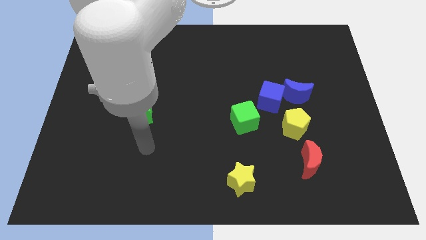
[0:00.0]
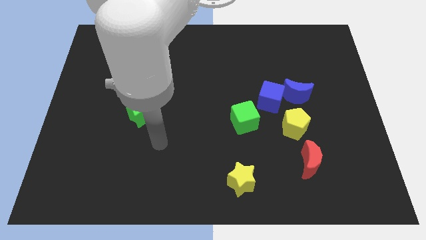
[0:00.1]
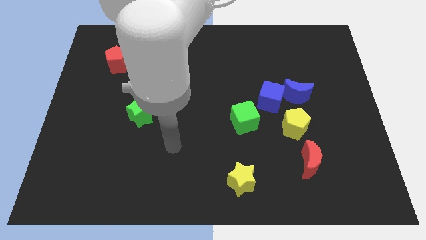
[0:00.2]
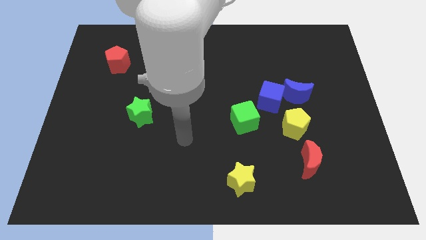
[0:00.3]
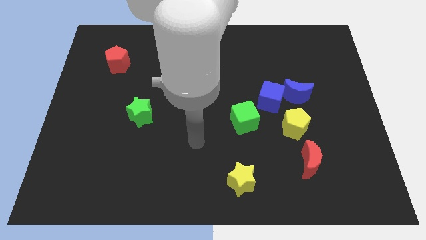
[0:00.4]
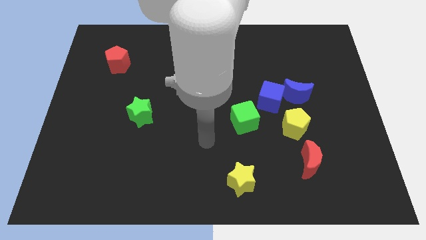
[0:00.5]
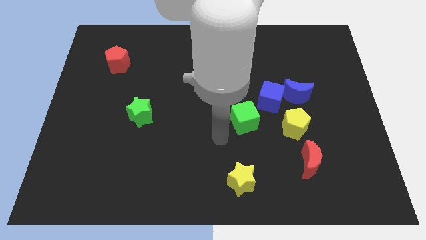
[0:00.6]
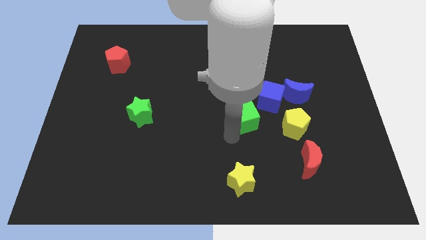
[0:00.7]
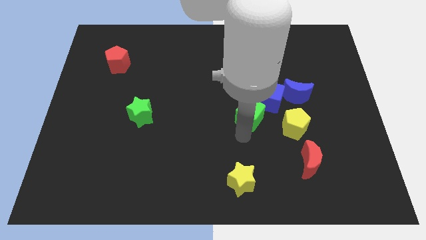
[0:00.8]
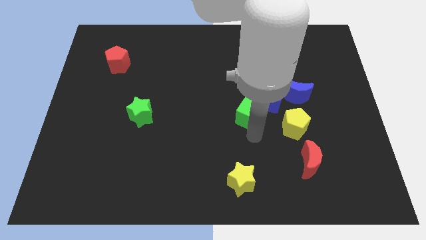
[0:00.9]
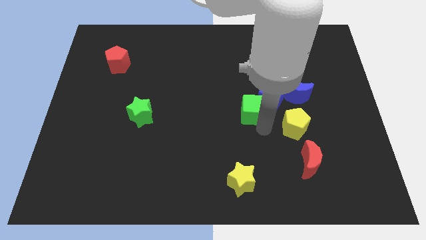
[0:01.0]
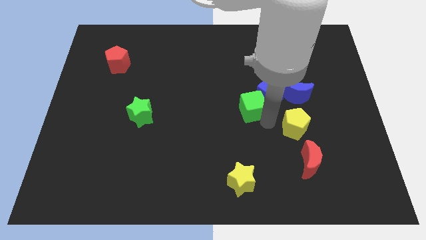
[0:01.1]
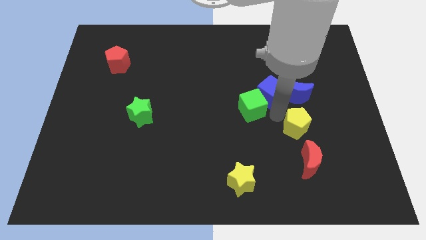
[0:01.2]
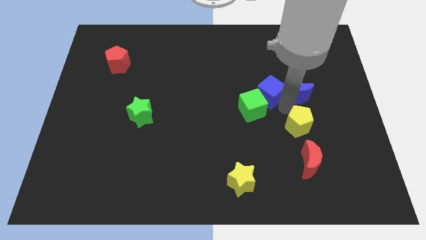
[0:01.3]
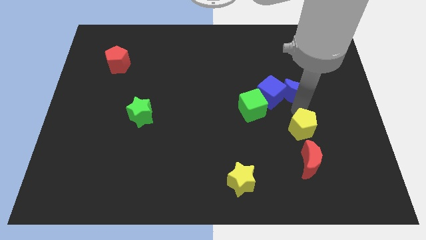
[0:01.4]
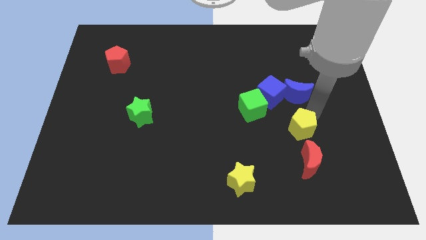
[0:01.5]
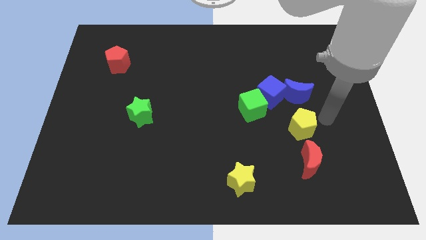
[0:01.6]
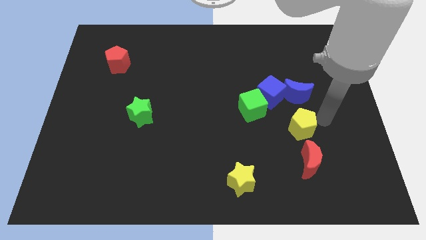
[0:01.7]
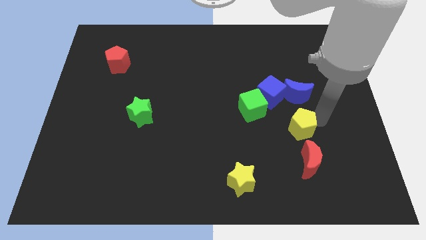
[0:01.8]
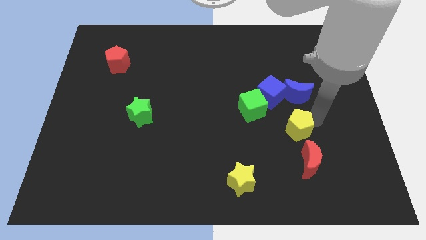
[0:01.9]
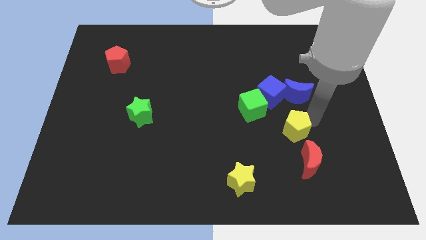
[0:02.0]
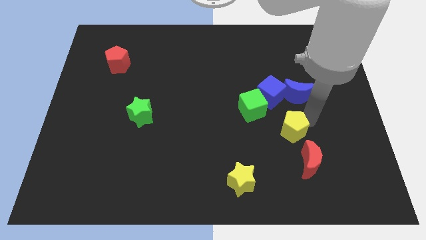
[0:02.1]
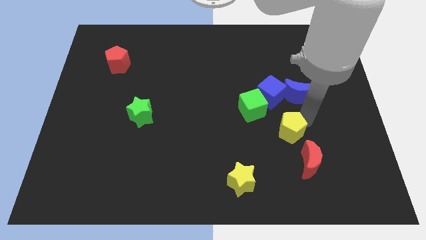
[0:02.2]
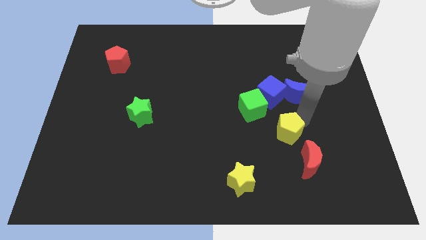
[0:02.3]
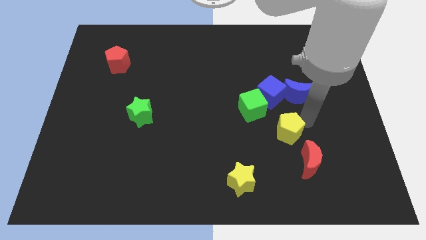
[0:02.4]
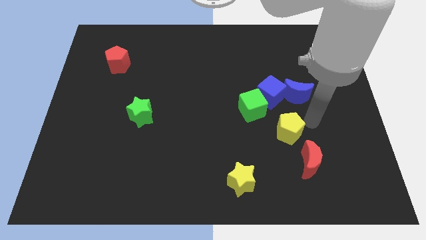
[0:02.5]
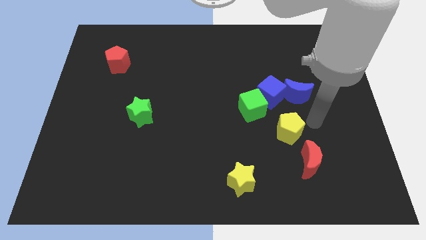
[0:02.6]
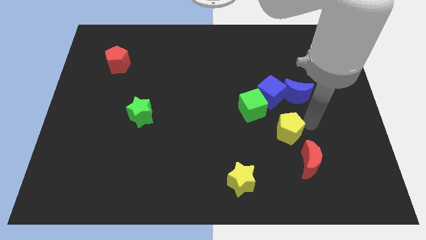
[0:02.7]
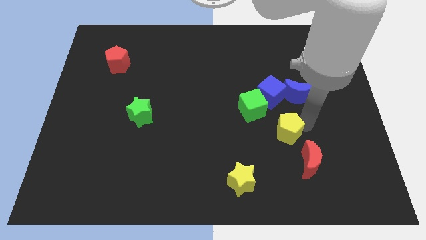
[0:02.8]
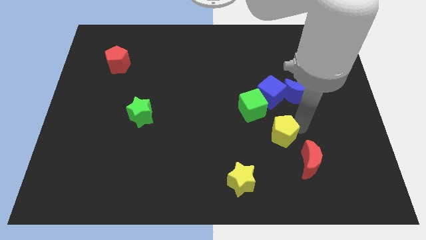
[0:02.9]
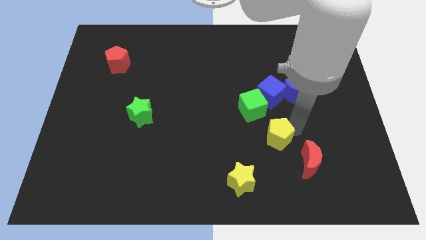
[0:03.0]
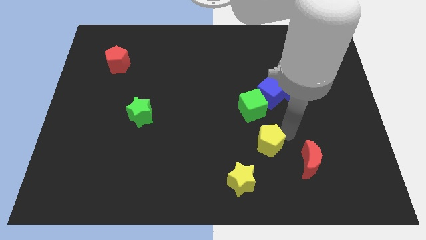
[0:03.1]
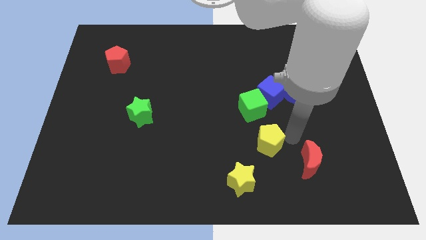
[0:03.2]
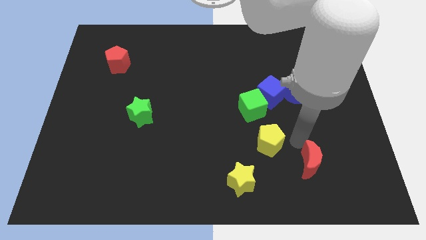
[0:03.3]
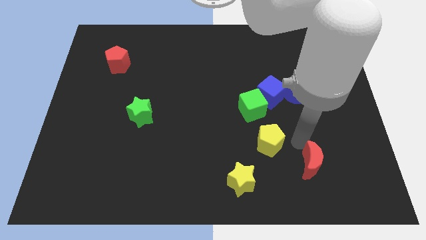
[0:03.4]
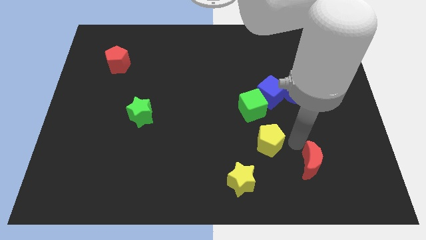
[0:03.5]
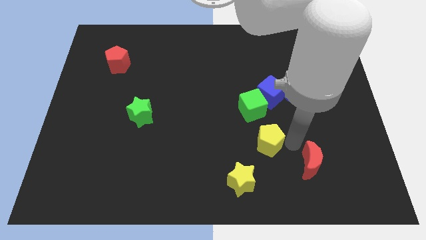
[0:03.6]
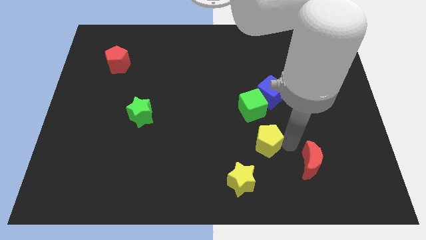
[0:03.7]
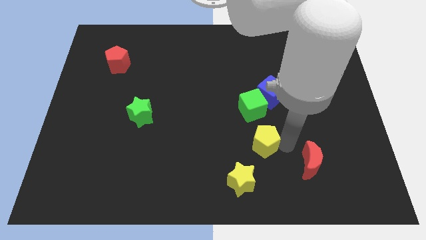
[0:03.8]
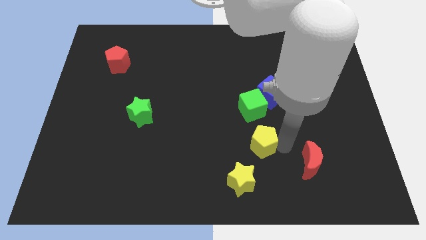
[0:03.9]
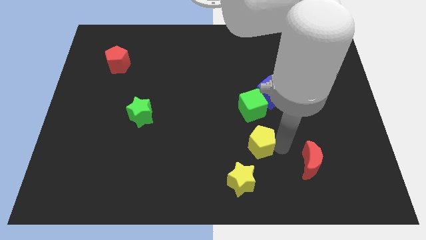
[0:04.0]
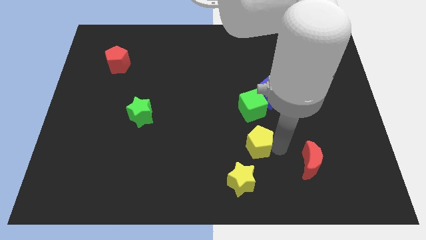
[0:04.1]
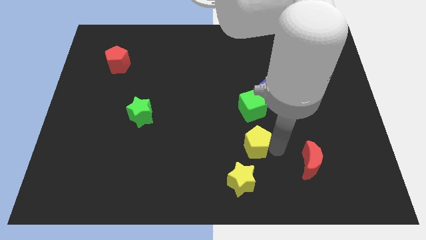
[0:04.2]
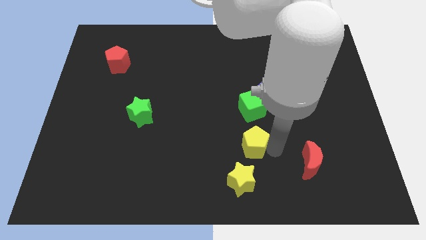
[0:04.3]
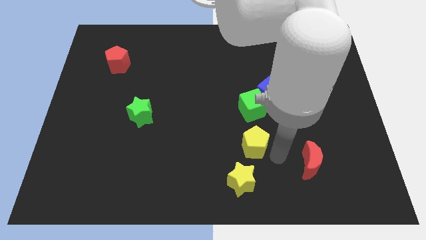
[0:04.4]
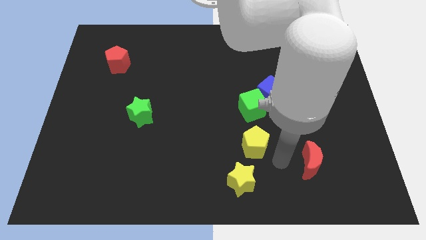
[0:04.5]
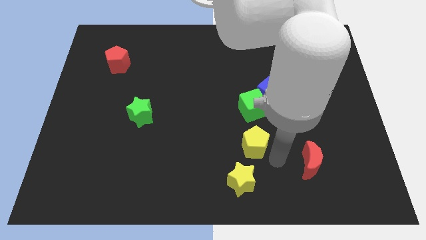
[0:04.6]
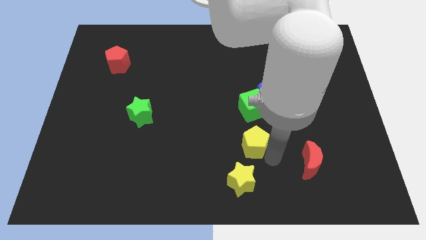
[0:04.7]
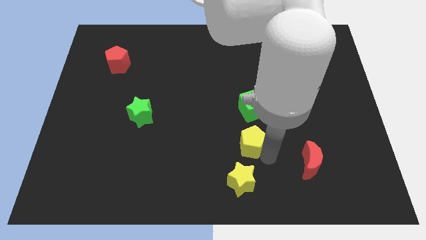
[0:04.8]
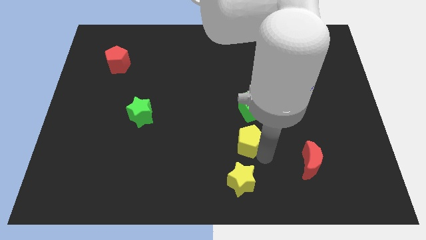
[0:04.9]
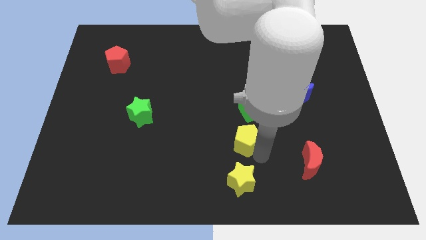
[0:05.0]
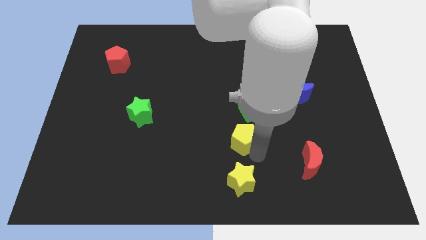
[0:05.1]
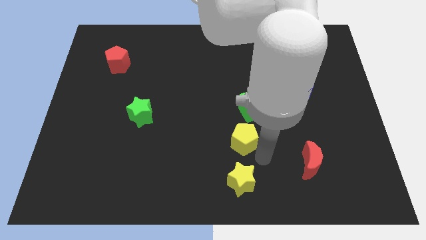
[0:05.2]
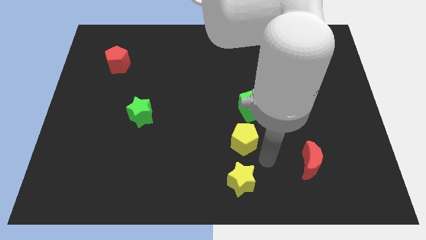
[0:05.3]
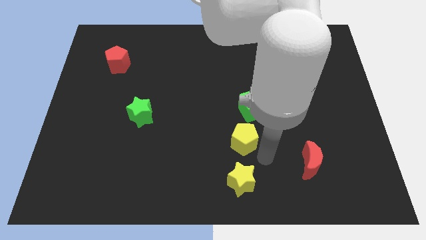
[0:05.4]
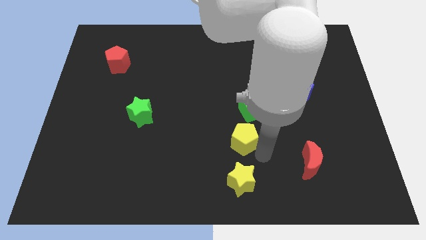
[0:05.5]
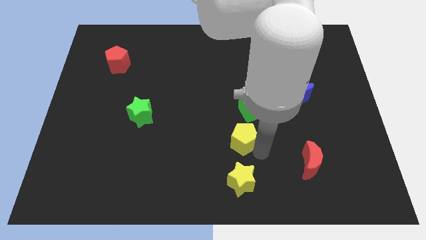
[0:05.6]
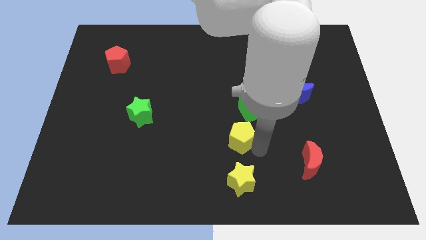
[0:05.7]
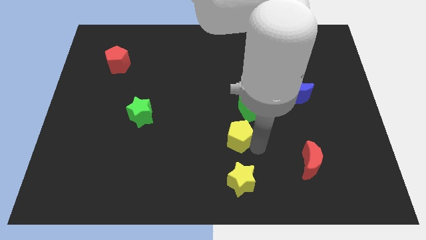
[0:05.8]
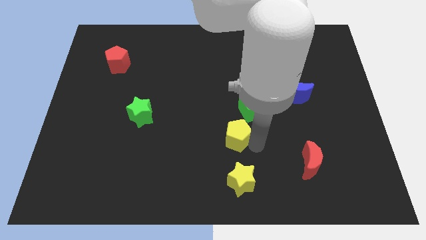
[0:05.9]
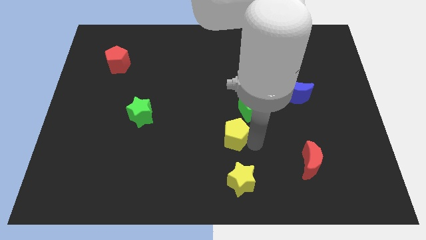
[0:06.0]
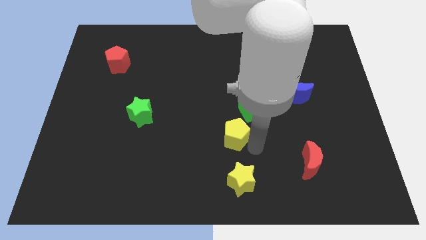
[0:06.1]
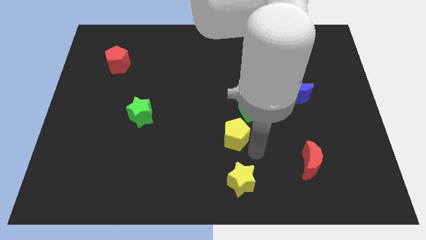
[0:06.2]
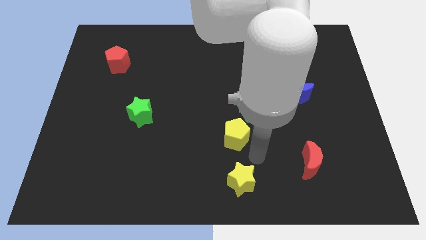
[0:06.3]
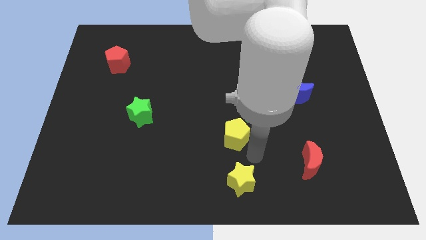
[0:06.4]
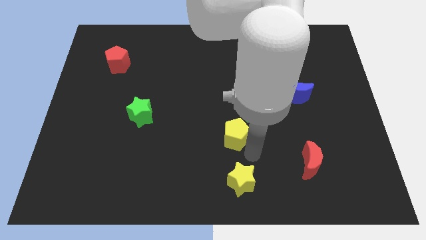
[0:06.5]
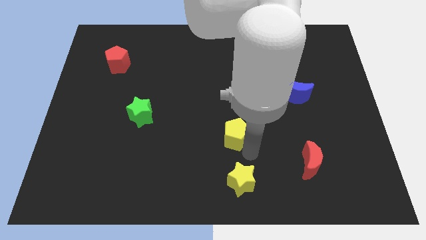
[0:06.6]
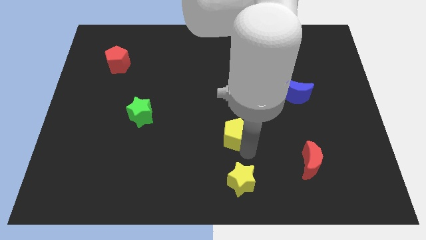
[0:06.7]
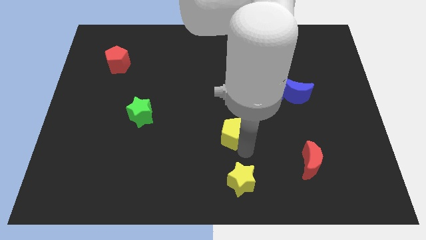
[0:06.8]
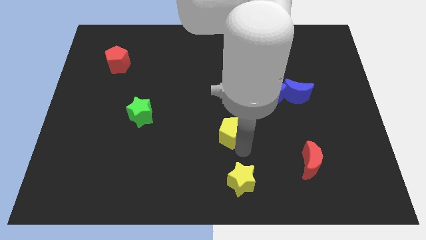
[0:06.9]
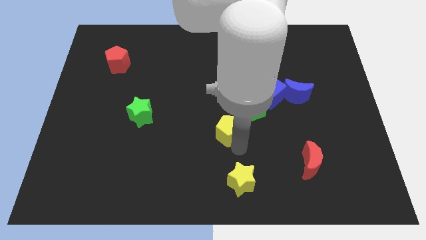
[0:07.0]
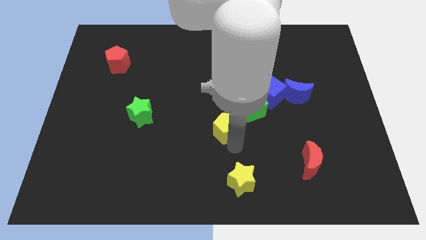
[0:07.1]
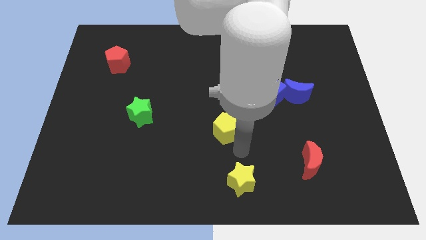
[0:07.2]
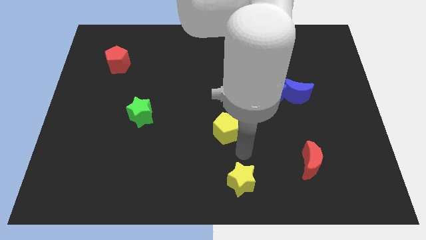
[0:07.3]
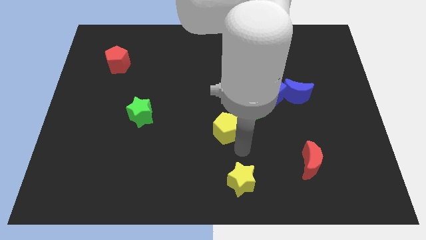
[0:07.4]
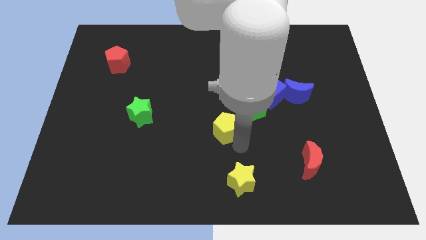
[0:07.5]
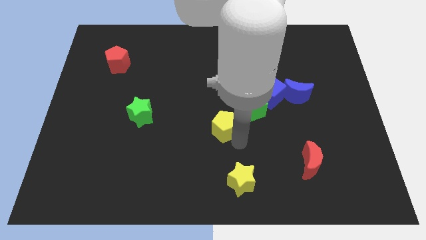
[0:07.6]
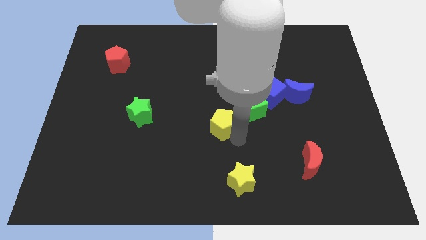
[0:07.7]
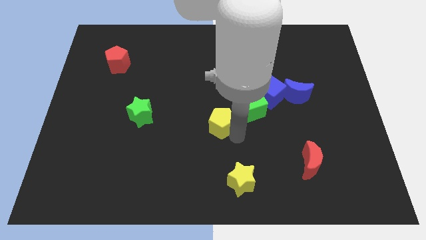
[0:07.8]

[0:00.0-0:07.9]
push the yellow pentagon left of the green cube

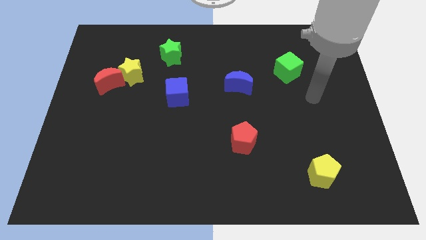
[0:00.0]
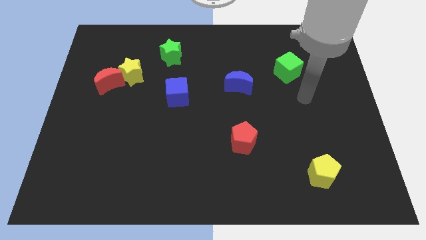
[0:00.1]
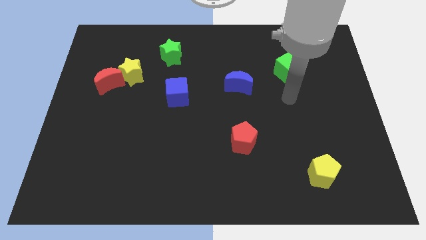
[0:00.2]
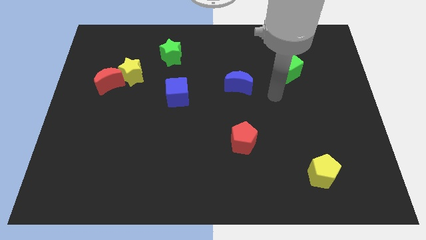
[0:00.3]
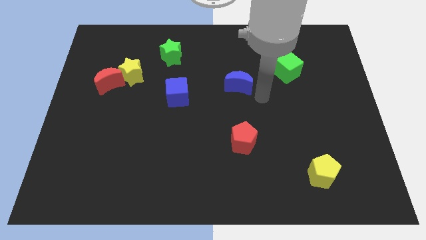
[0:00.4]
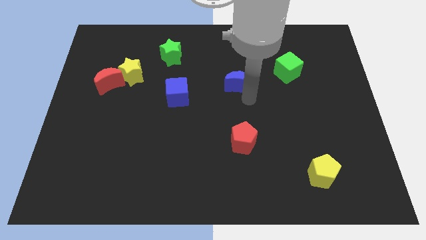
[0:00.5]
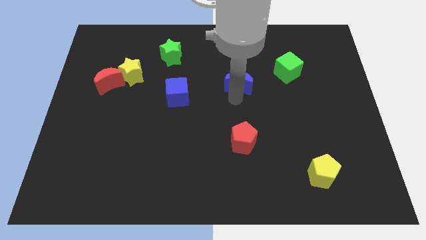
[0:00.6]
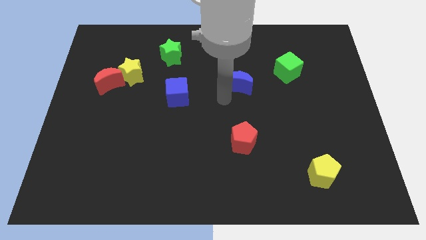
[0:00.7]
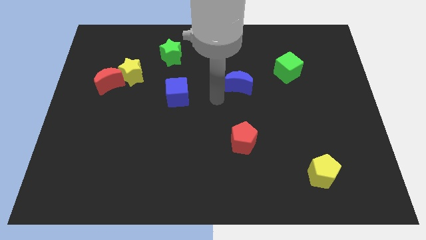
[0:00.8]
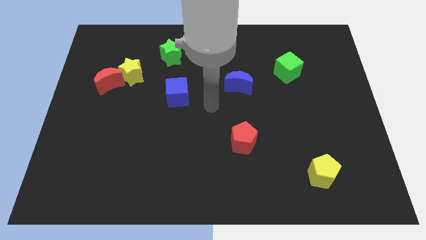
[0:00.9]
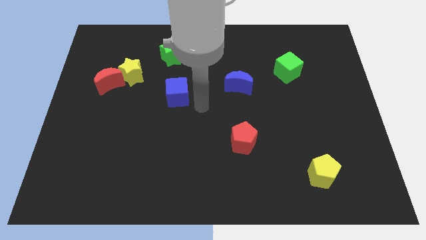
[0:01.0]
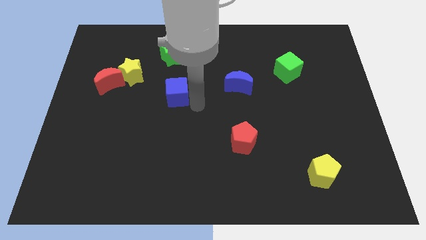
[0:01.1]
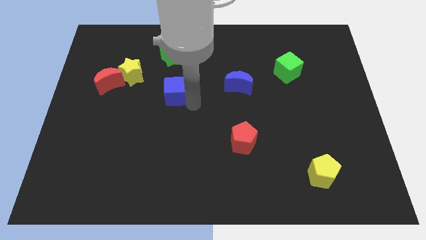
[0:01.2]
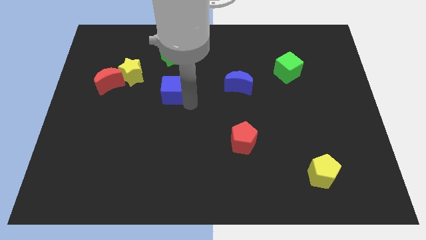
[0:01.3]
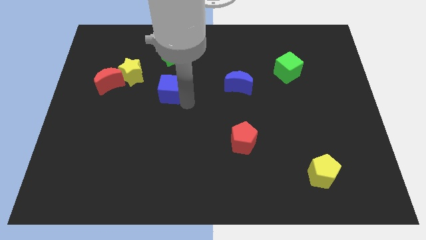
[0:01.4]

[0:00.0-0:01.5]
put the blue cube to the right of the red moon
